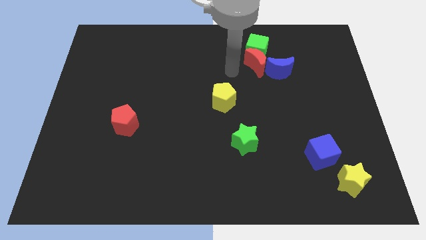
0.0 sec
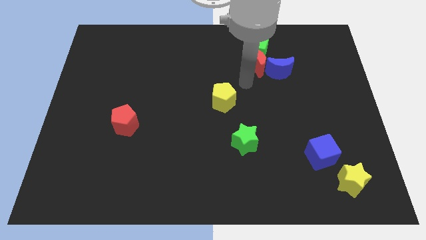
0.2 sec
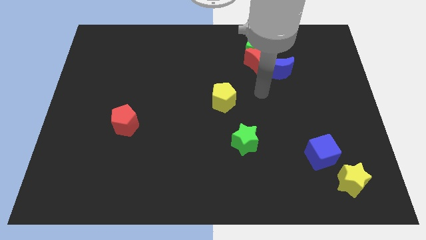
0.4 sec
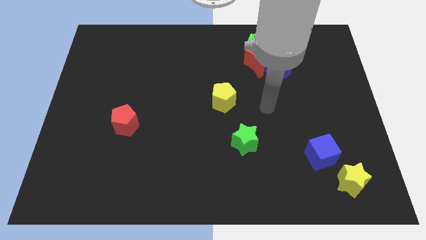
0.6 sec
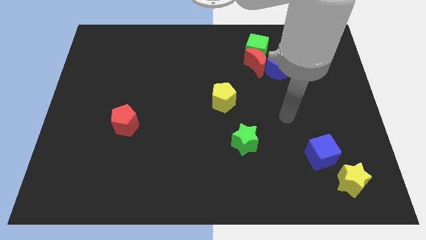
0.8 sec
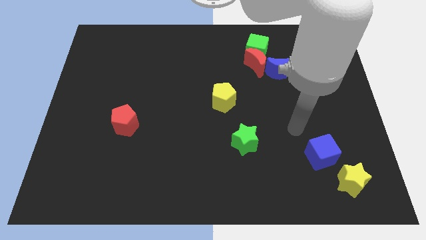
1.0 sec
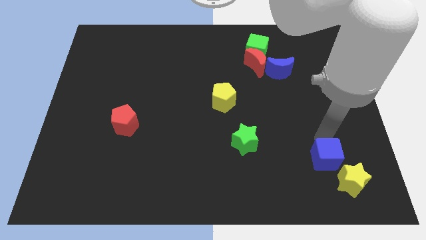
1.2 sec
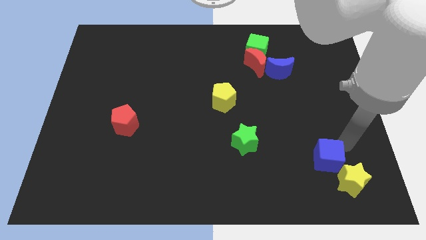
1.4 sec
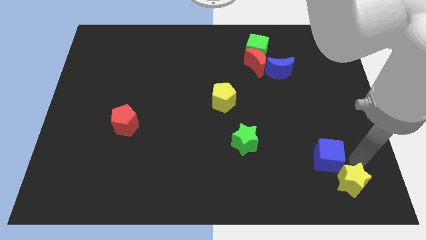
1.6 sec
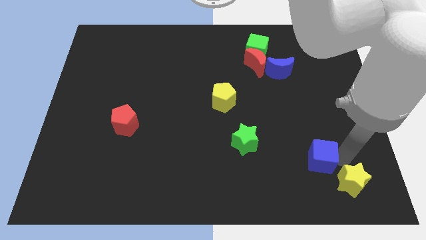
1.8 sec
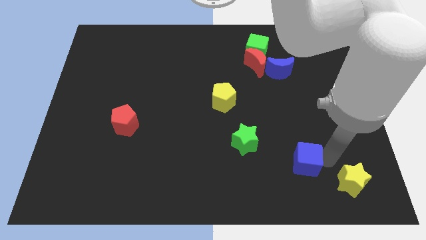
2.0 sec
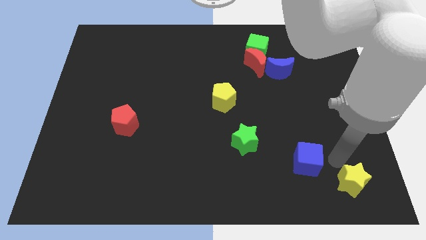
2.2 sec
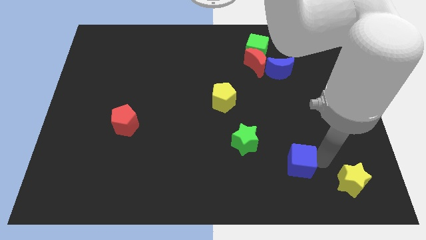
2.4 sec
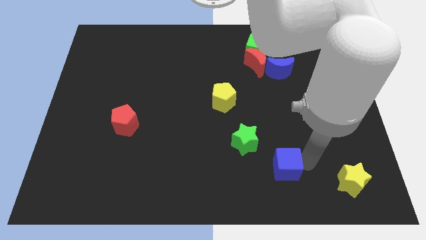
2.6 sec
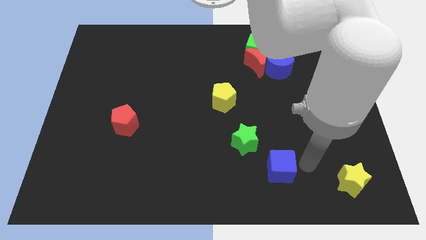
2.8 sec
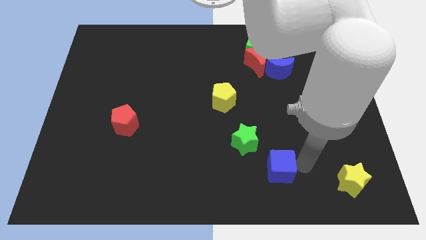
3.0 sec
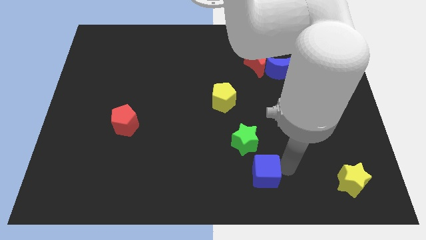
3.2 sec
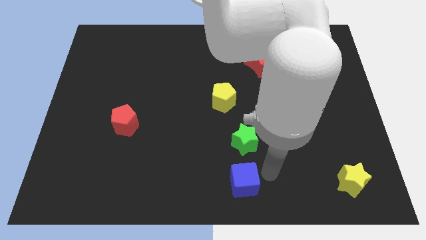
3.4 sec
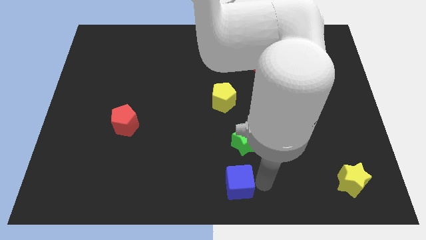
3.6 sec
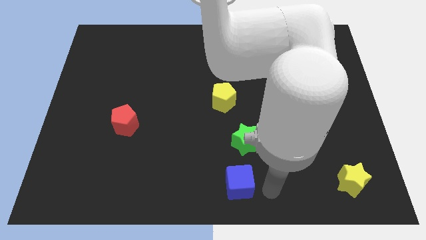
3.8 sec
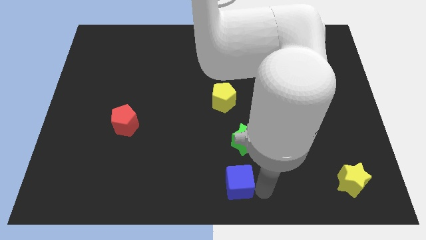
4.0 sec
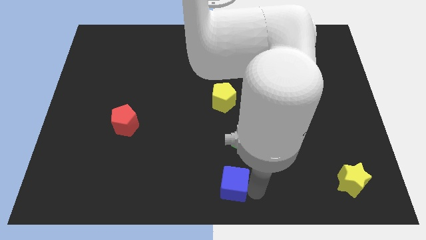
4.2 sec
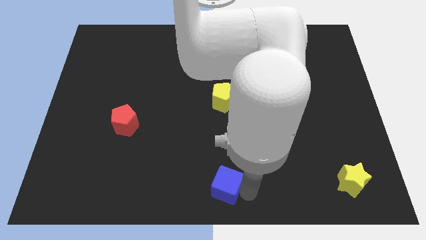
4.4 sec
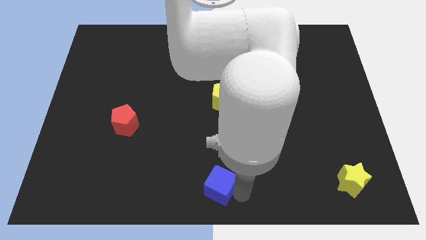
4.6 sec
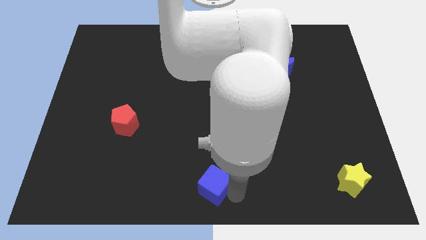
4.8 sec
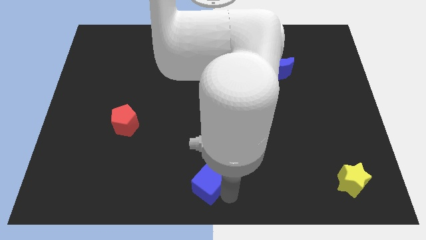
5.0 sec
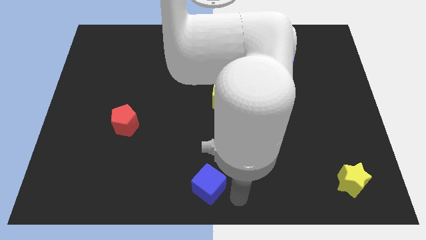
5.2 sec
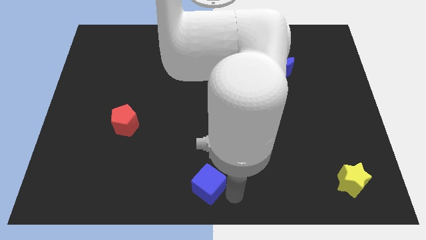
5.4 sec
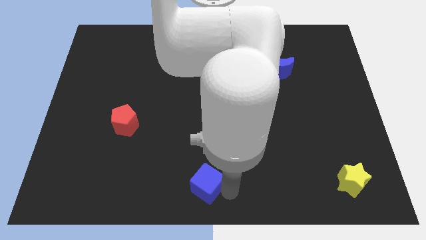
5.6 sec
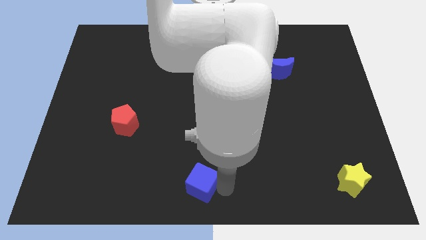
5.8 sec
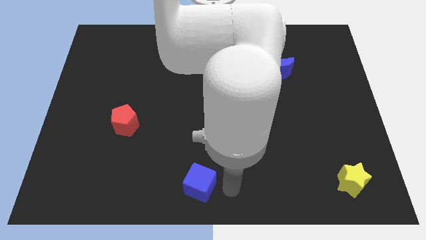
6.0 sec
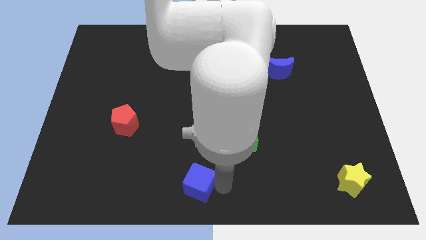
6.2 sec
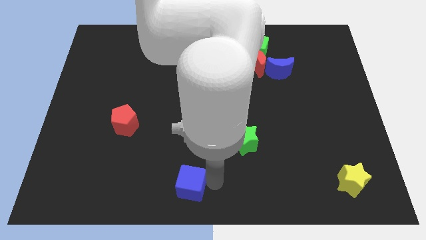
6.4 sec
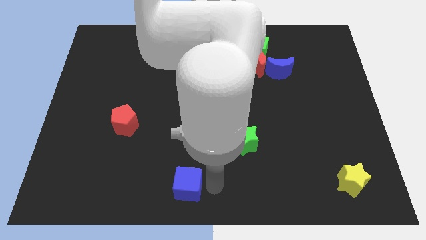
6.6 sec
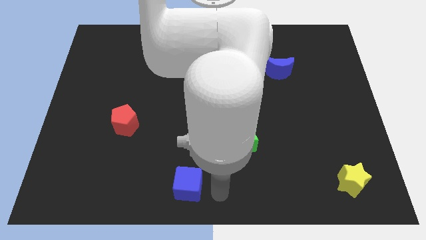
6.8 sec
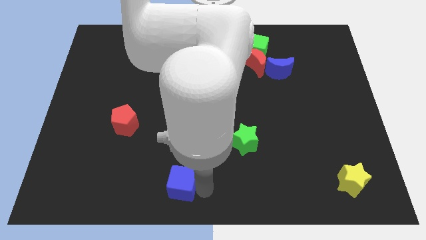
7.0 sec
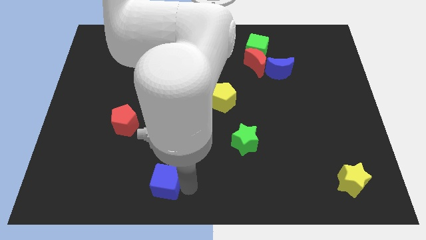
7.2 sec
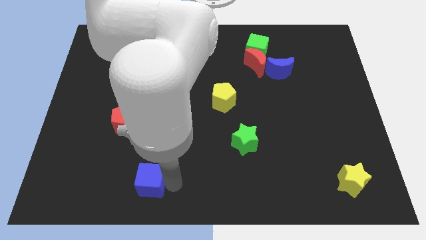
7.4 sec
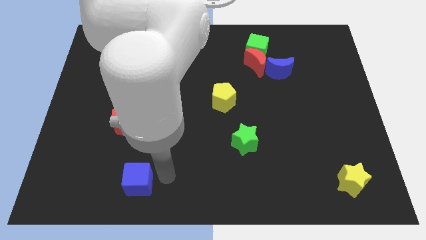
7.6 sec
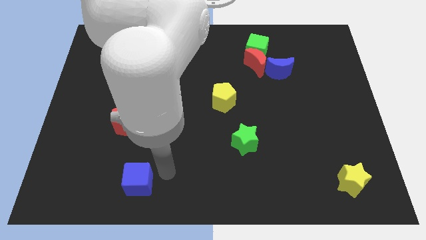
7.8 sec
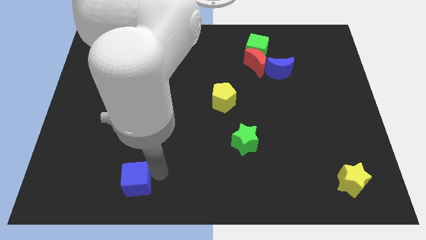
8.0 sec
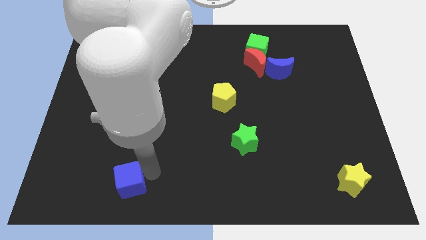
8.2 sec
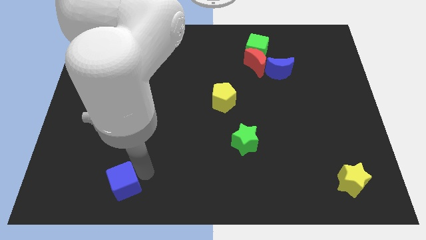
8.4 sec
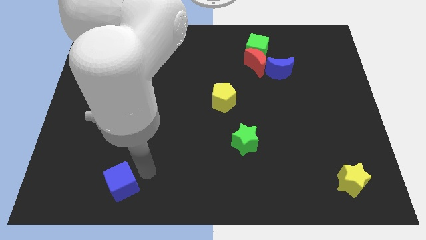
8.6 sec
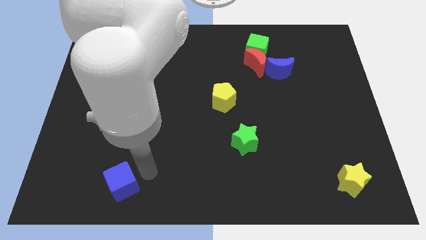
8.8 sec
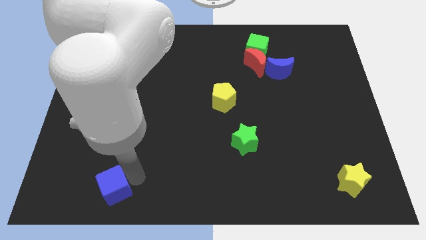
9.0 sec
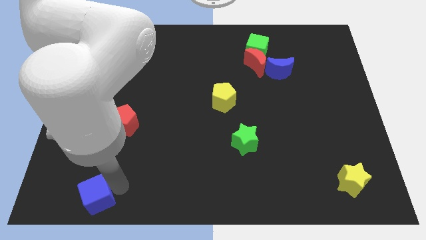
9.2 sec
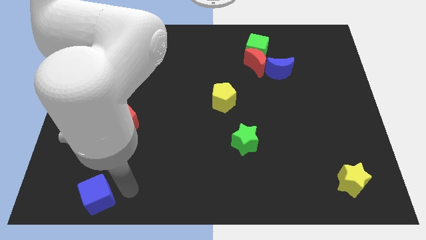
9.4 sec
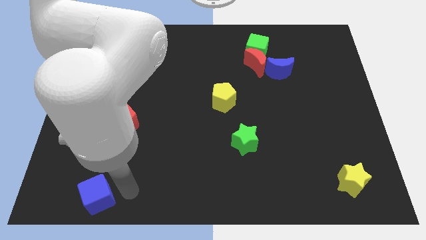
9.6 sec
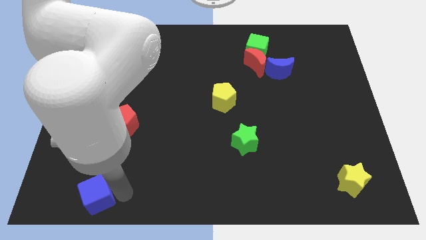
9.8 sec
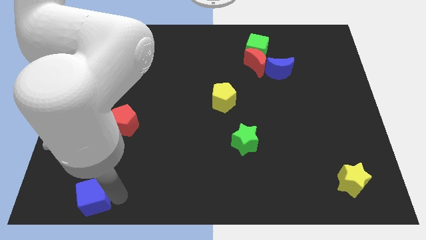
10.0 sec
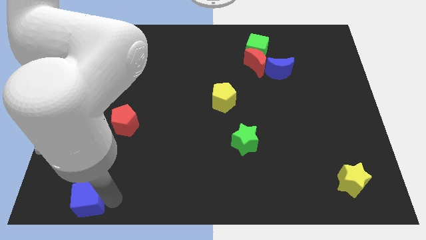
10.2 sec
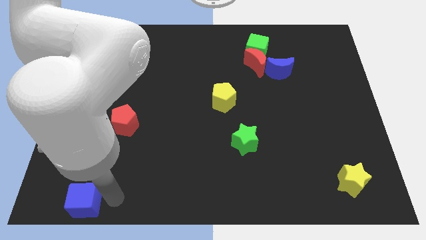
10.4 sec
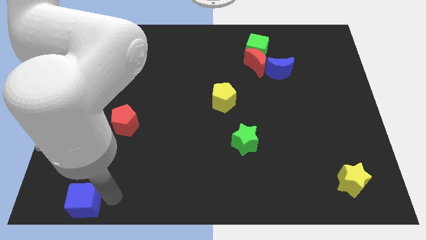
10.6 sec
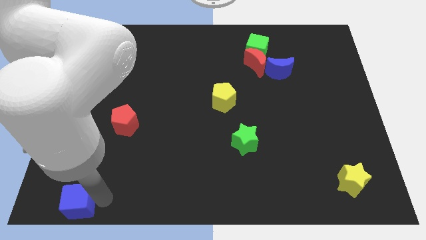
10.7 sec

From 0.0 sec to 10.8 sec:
put the blue cube to the bottom left corner

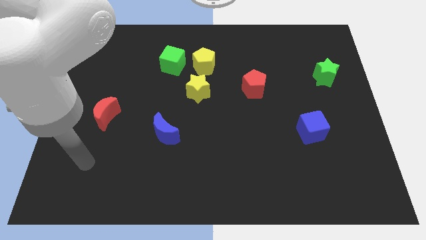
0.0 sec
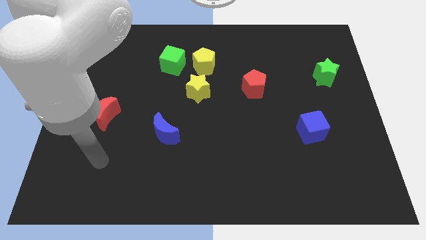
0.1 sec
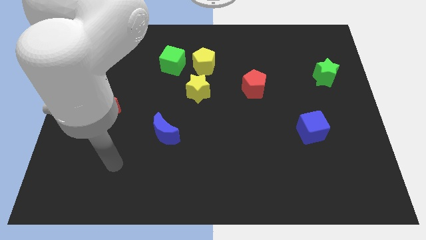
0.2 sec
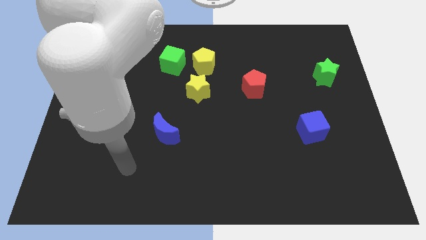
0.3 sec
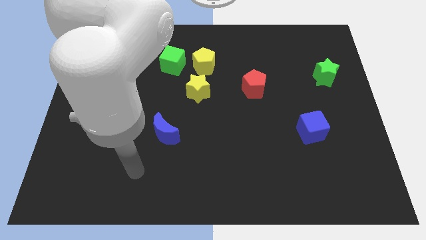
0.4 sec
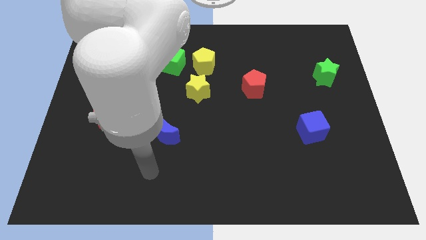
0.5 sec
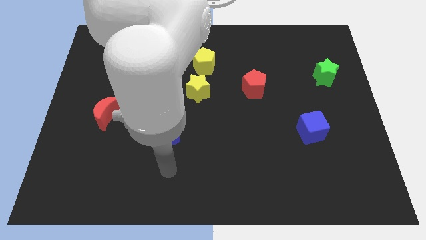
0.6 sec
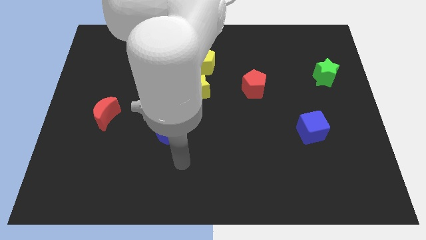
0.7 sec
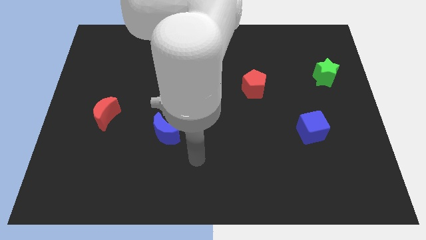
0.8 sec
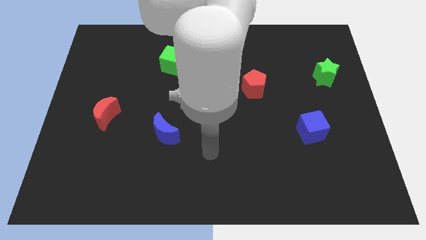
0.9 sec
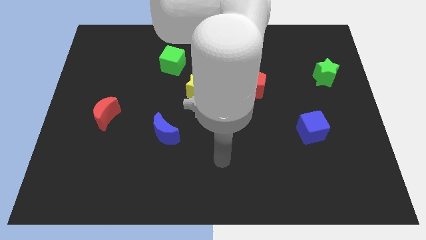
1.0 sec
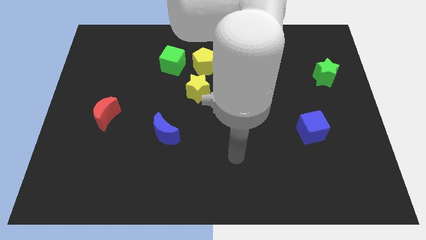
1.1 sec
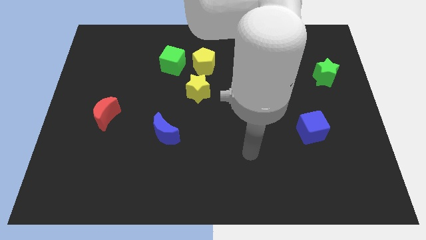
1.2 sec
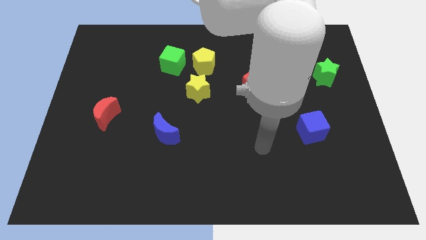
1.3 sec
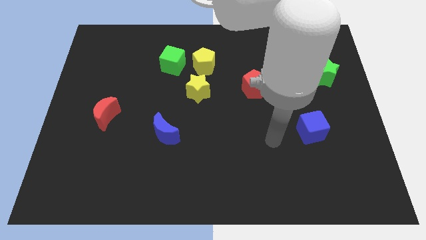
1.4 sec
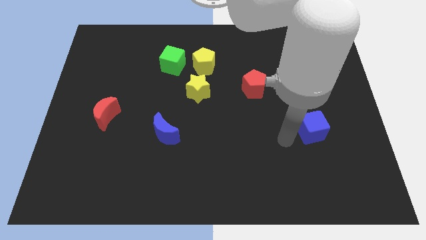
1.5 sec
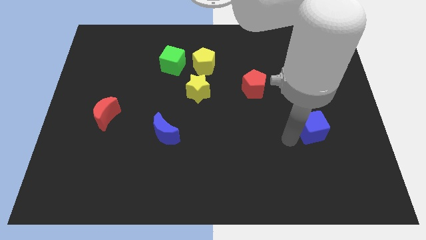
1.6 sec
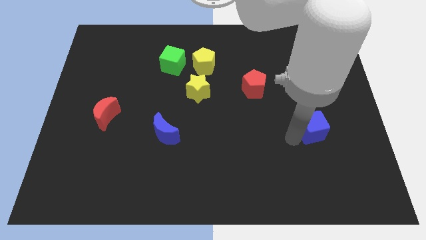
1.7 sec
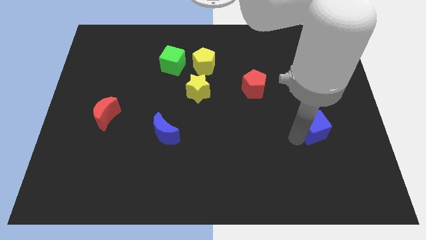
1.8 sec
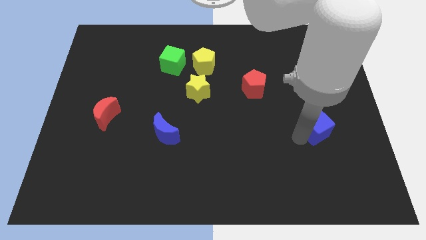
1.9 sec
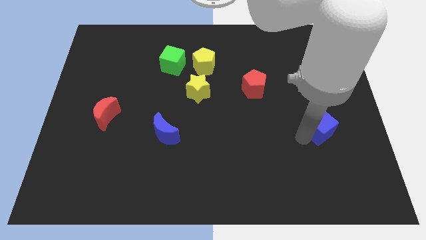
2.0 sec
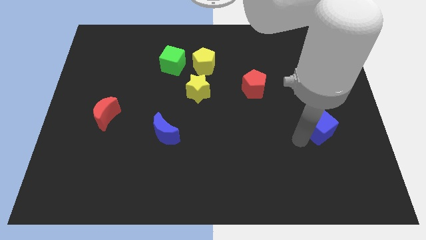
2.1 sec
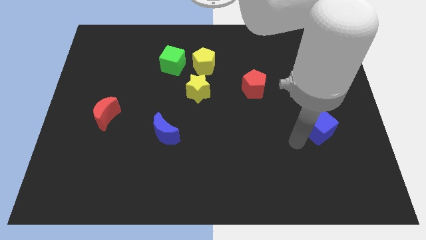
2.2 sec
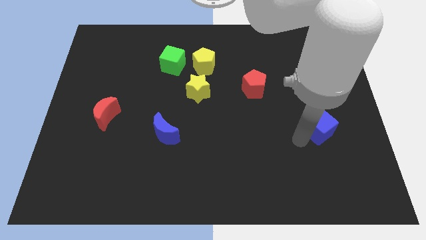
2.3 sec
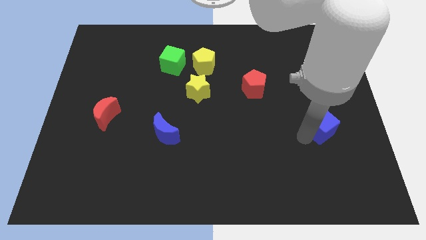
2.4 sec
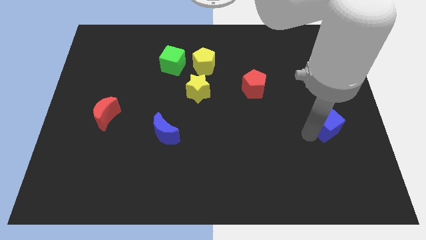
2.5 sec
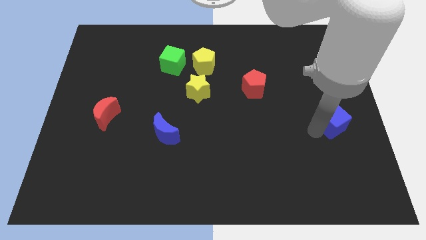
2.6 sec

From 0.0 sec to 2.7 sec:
push the blue cube to the right side of the board
